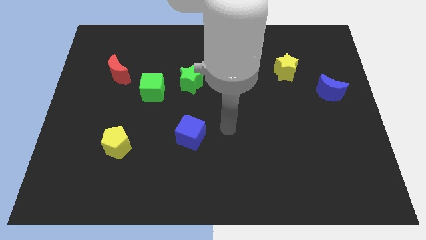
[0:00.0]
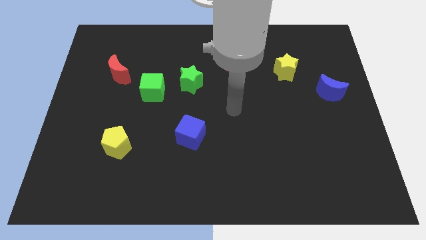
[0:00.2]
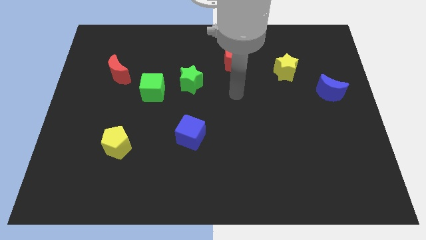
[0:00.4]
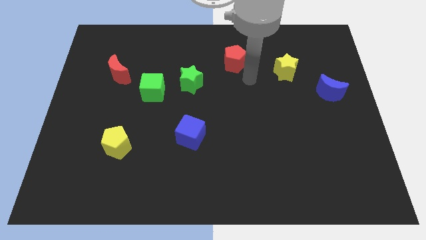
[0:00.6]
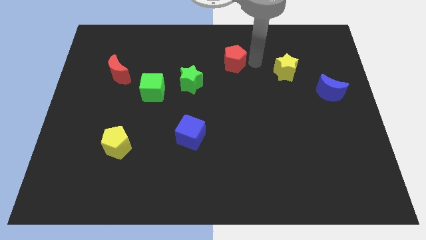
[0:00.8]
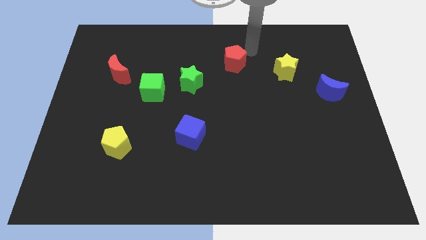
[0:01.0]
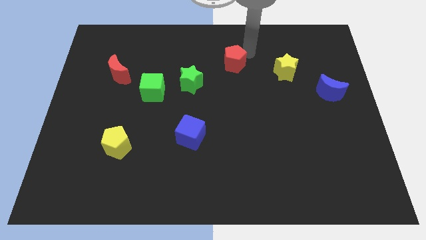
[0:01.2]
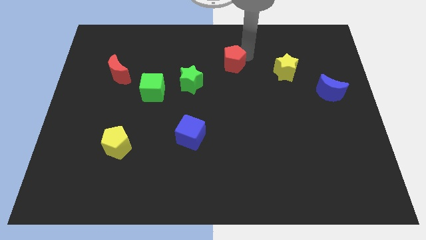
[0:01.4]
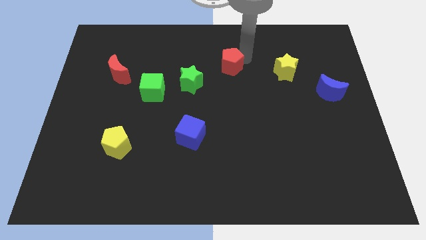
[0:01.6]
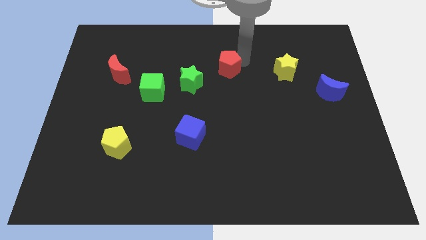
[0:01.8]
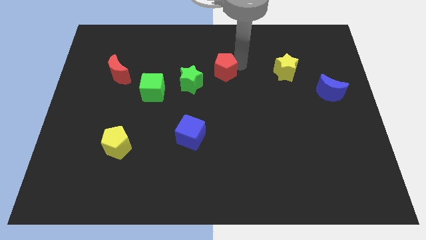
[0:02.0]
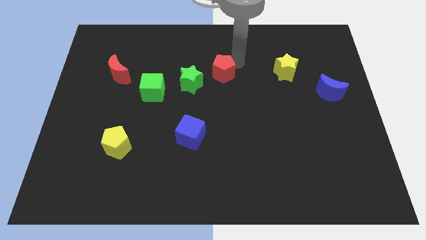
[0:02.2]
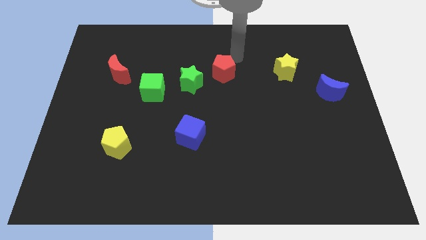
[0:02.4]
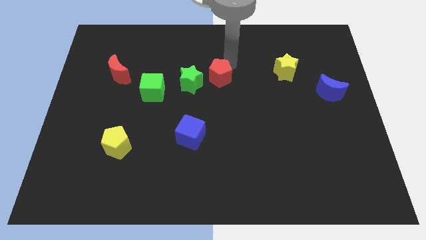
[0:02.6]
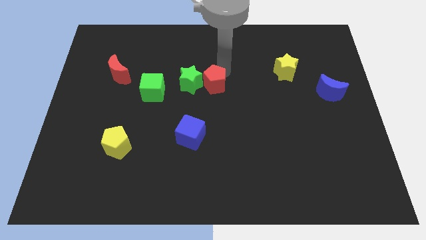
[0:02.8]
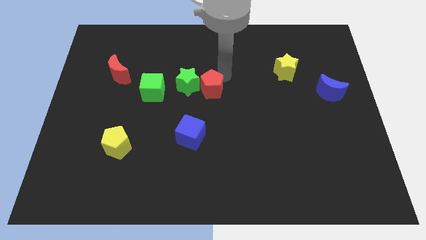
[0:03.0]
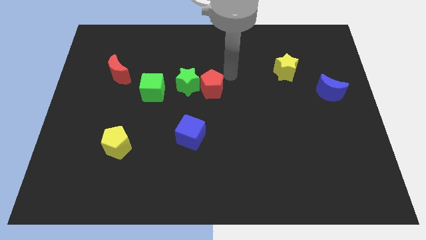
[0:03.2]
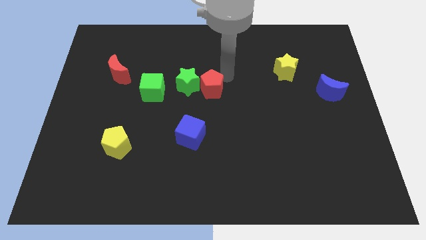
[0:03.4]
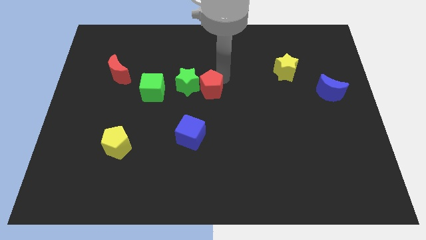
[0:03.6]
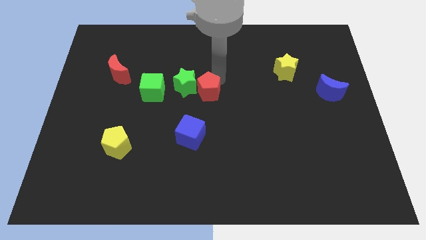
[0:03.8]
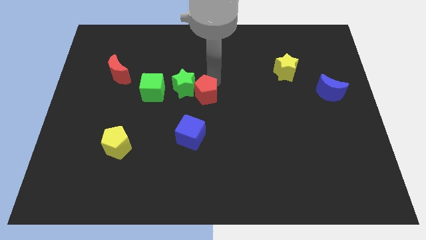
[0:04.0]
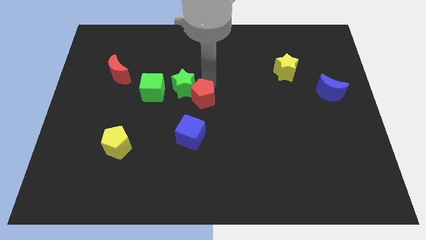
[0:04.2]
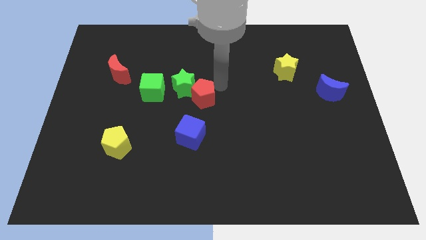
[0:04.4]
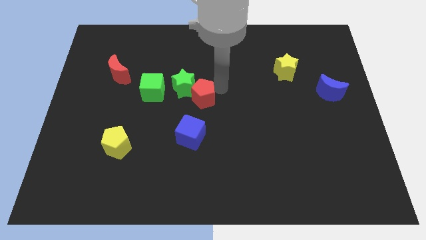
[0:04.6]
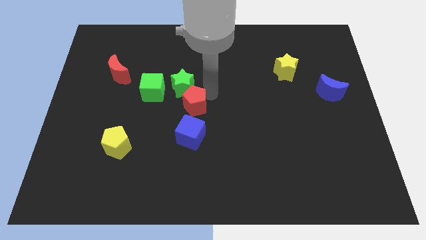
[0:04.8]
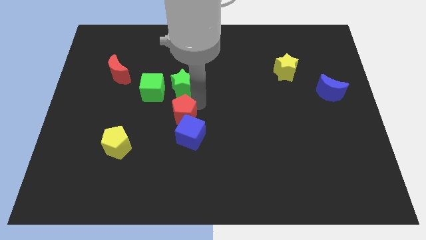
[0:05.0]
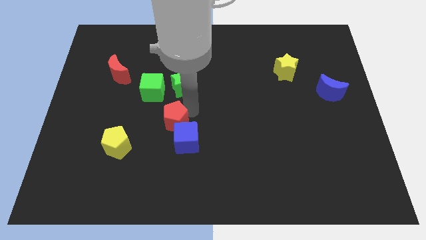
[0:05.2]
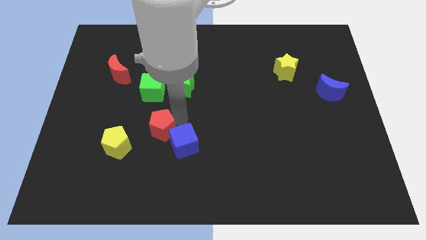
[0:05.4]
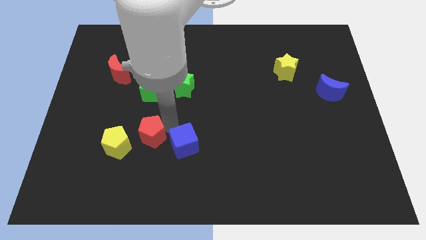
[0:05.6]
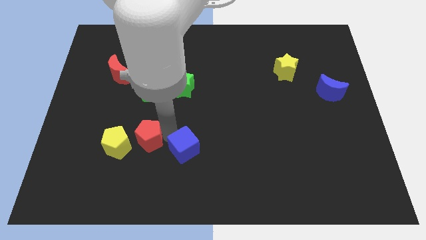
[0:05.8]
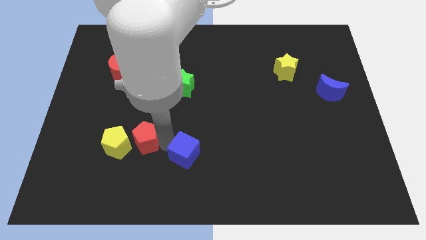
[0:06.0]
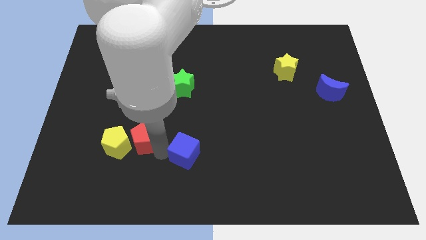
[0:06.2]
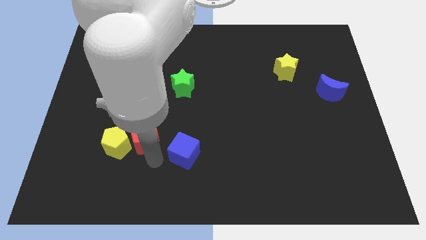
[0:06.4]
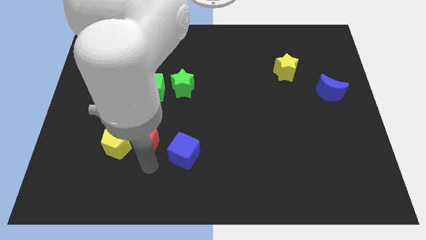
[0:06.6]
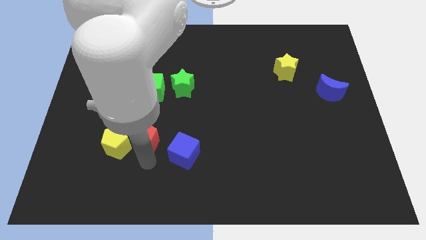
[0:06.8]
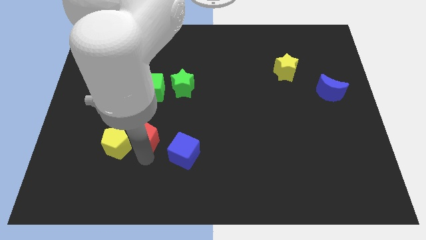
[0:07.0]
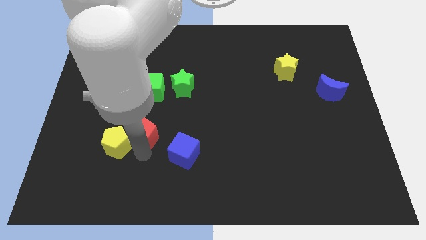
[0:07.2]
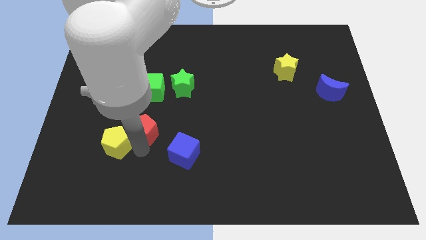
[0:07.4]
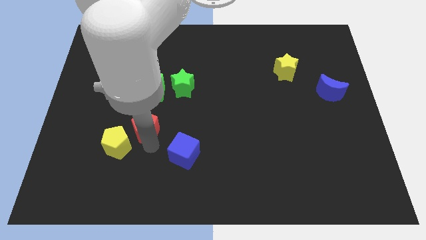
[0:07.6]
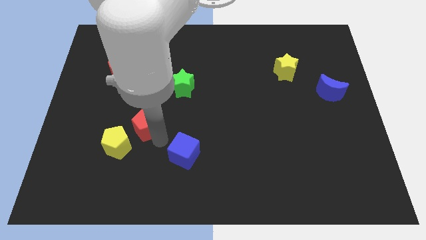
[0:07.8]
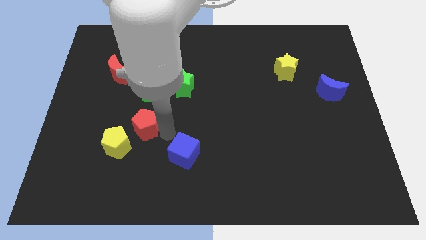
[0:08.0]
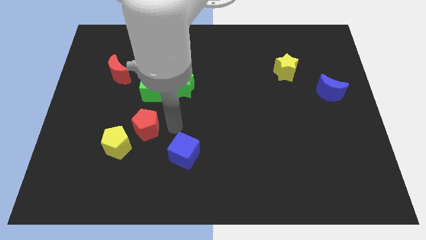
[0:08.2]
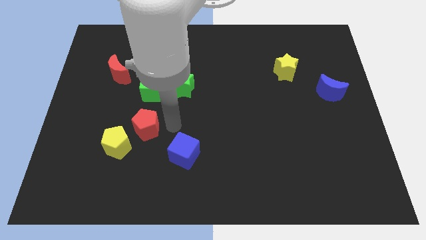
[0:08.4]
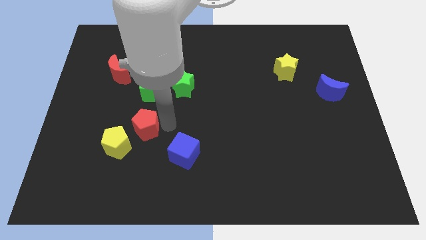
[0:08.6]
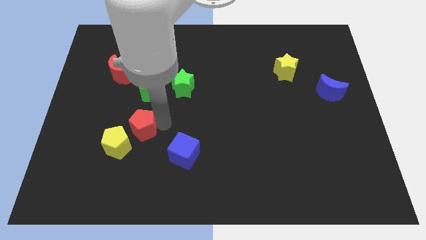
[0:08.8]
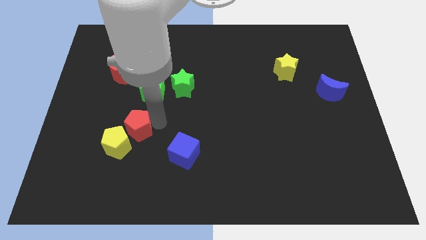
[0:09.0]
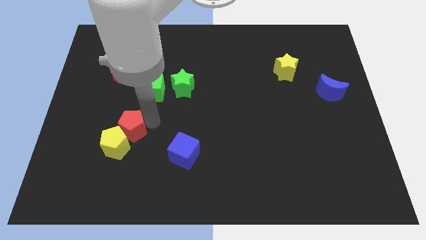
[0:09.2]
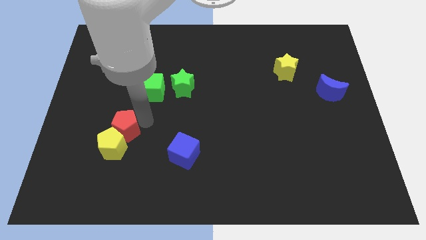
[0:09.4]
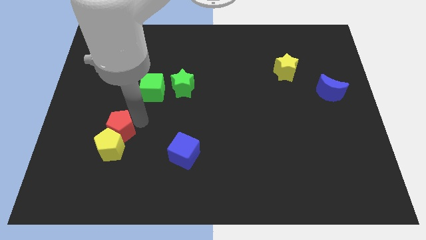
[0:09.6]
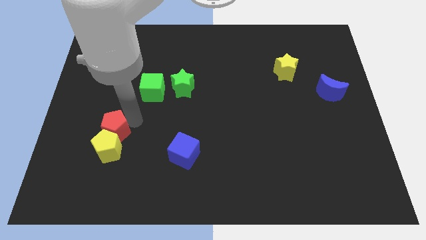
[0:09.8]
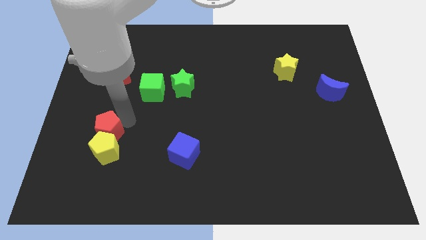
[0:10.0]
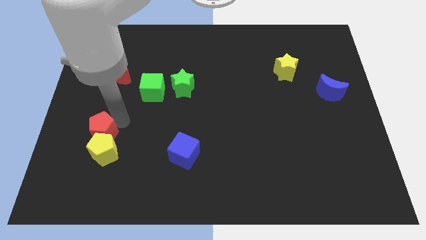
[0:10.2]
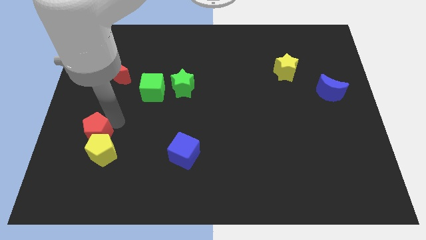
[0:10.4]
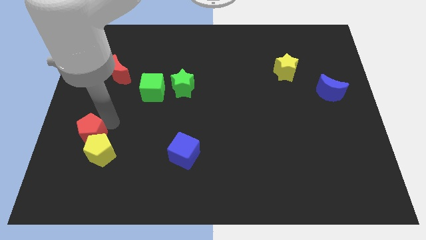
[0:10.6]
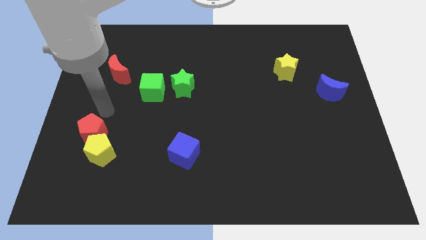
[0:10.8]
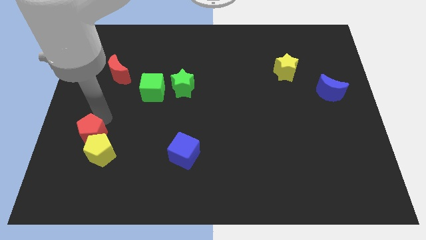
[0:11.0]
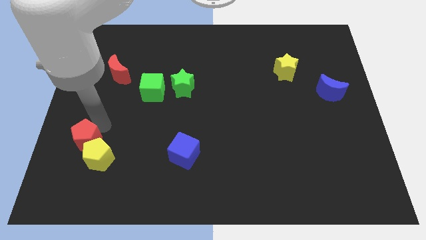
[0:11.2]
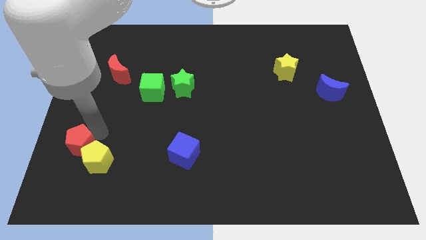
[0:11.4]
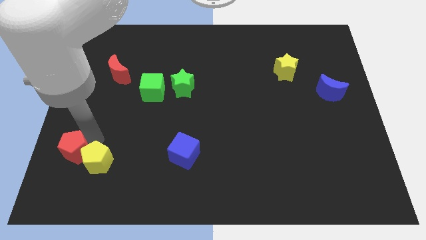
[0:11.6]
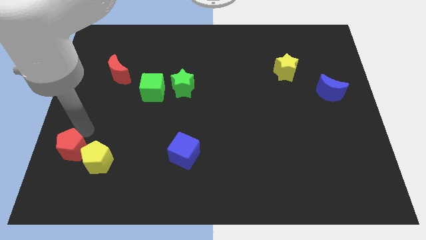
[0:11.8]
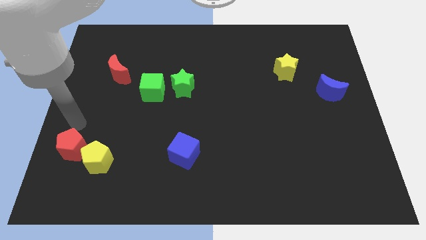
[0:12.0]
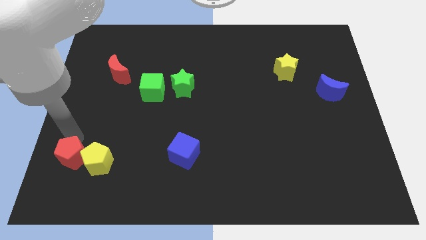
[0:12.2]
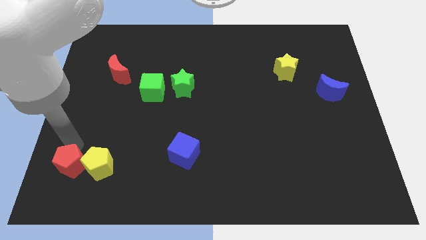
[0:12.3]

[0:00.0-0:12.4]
move the red pentagon to the bottom left side of the yellow pentagon
